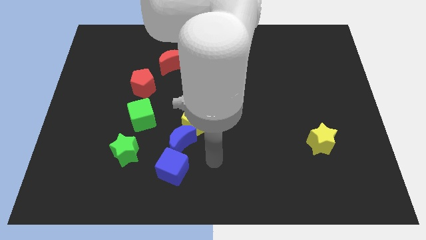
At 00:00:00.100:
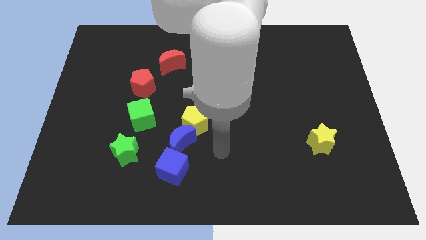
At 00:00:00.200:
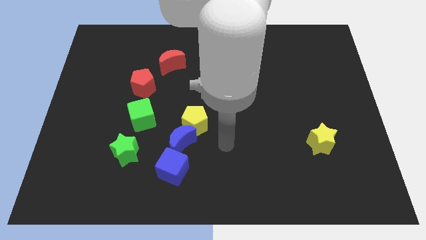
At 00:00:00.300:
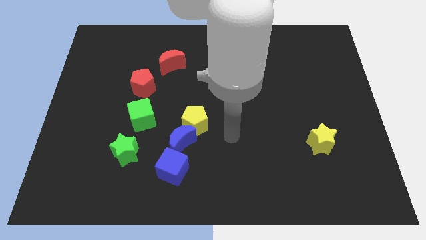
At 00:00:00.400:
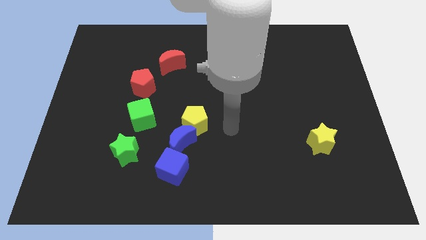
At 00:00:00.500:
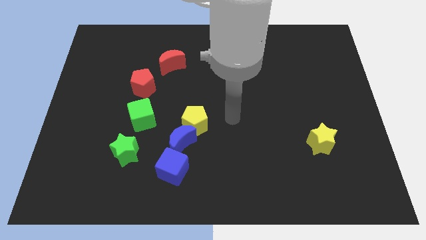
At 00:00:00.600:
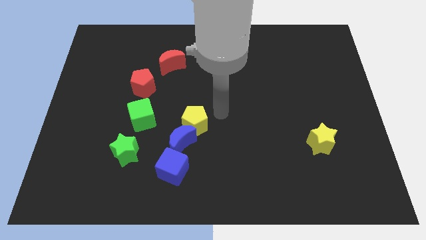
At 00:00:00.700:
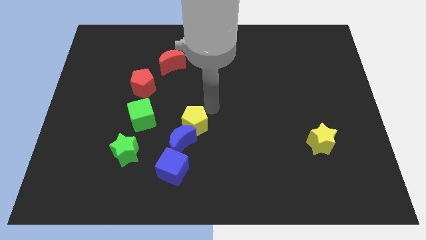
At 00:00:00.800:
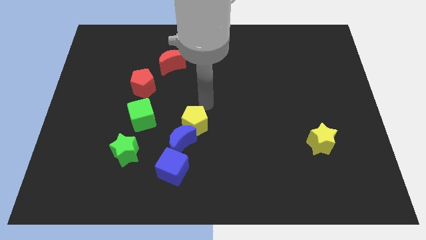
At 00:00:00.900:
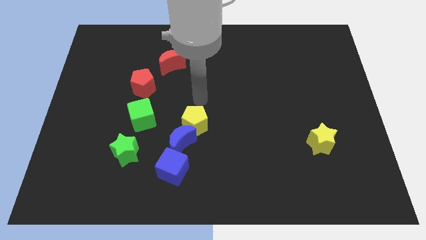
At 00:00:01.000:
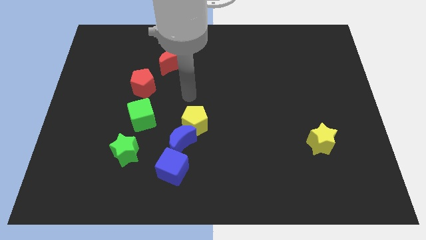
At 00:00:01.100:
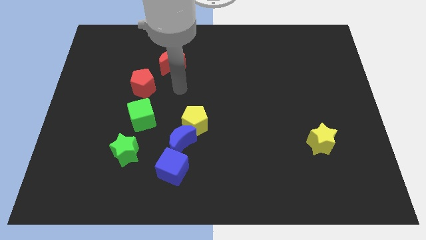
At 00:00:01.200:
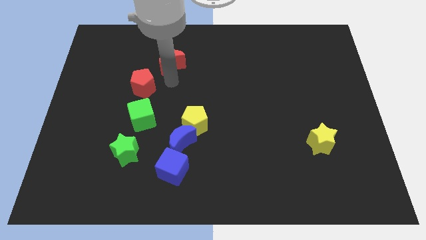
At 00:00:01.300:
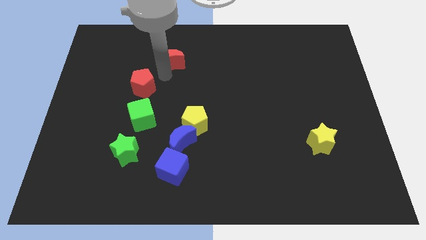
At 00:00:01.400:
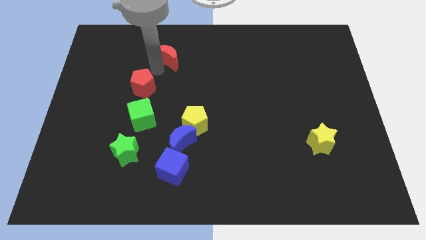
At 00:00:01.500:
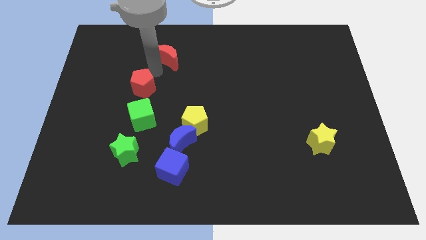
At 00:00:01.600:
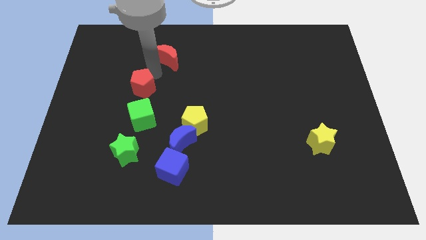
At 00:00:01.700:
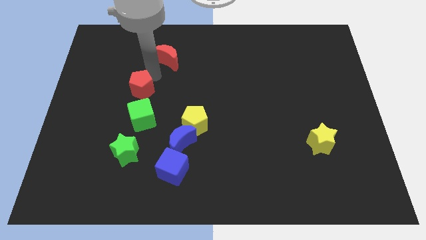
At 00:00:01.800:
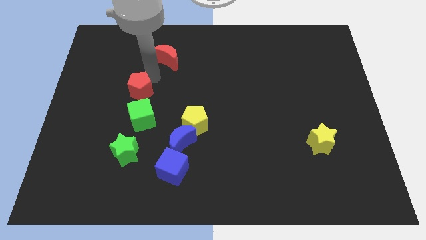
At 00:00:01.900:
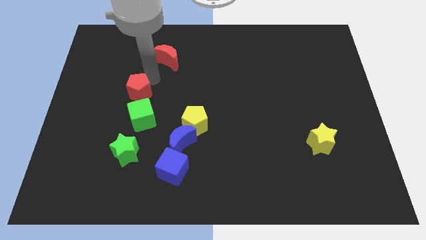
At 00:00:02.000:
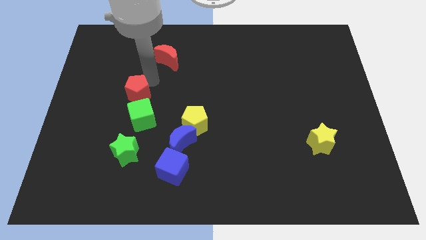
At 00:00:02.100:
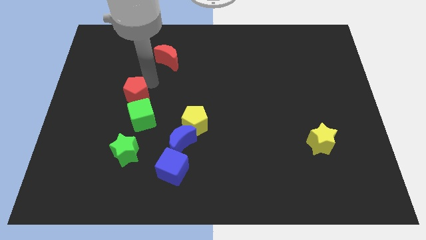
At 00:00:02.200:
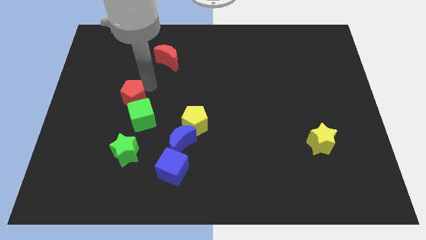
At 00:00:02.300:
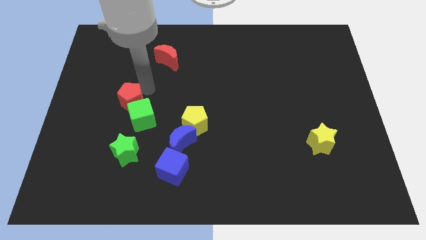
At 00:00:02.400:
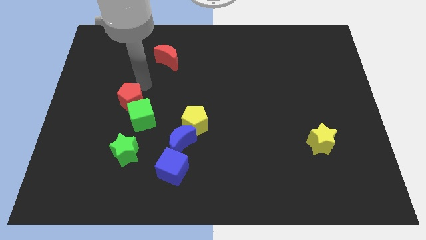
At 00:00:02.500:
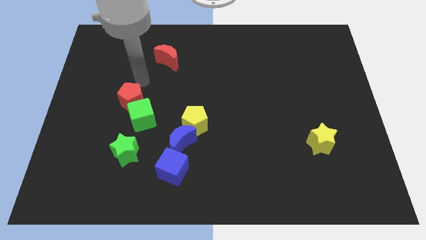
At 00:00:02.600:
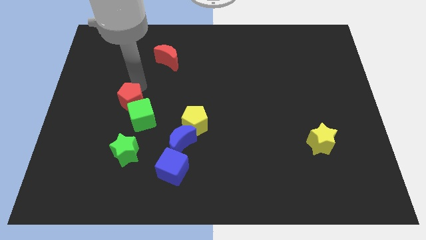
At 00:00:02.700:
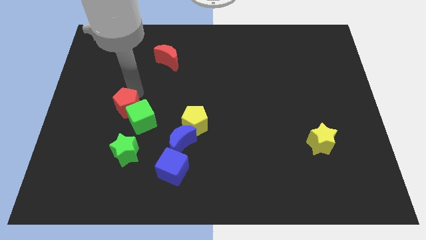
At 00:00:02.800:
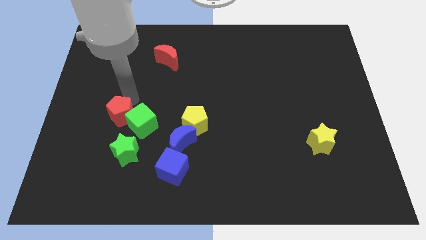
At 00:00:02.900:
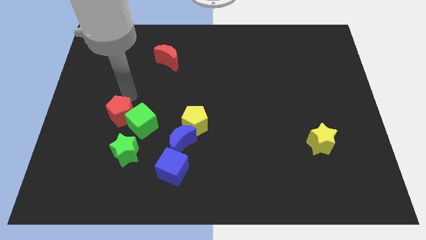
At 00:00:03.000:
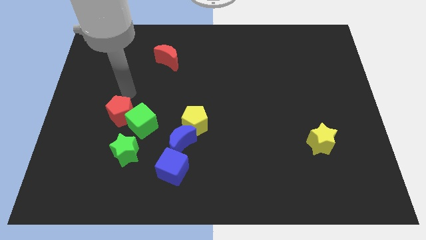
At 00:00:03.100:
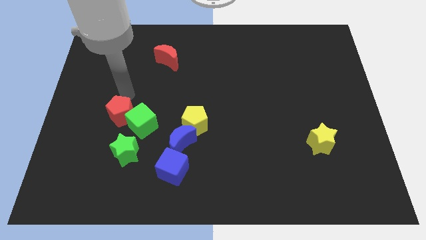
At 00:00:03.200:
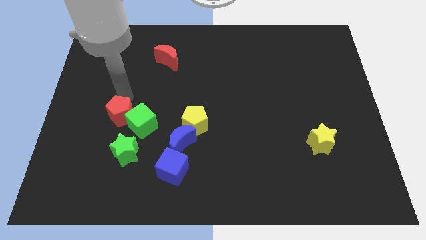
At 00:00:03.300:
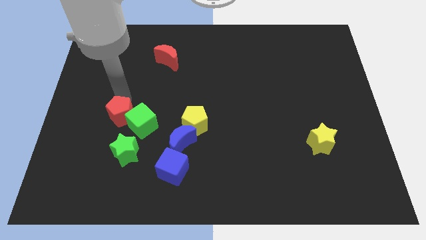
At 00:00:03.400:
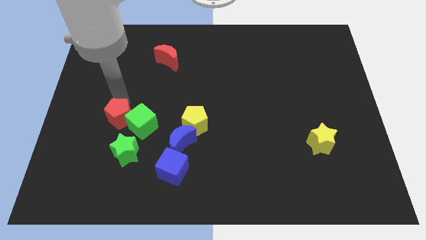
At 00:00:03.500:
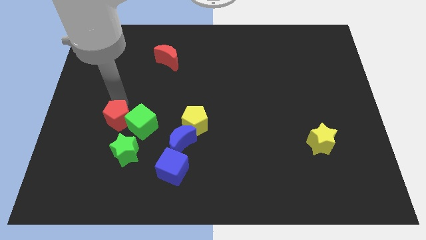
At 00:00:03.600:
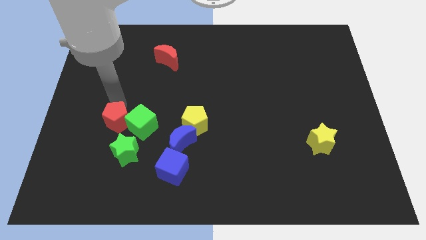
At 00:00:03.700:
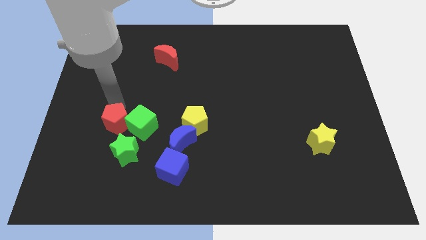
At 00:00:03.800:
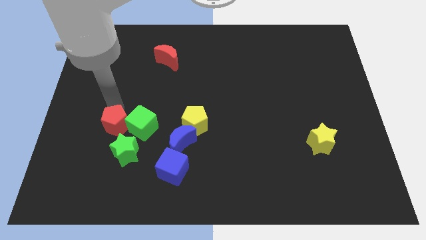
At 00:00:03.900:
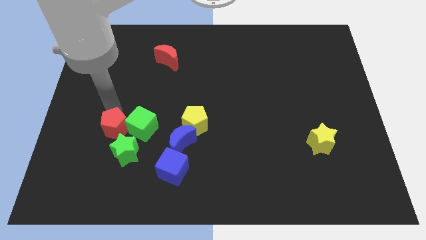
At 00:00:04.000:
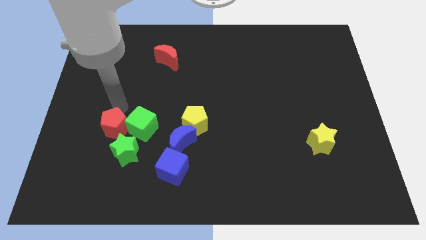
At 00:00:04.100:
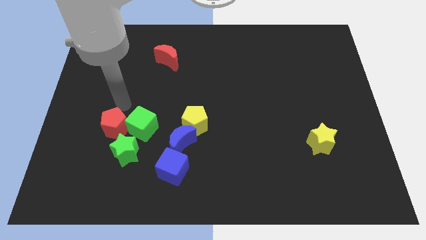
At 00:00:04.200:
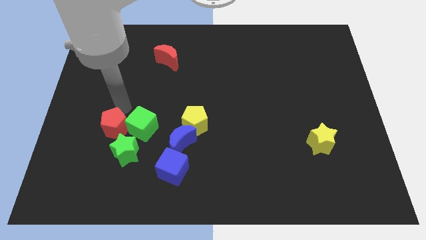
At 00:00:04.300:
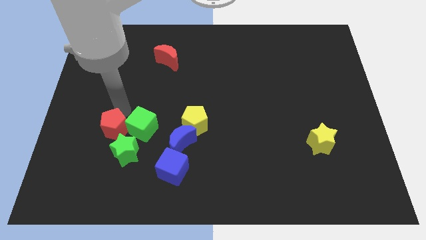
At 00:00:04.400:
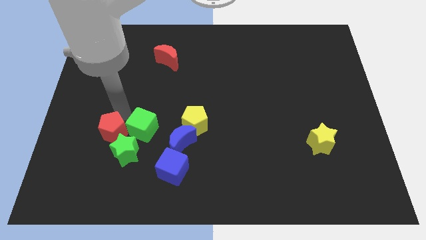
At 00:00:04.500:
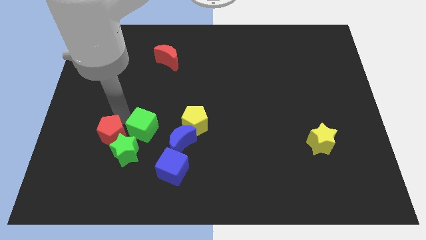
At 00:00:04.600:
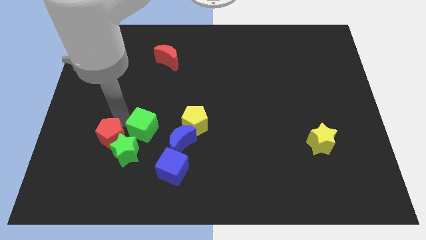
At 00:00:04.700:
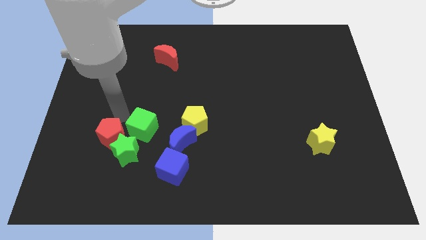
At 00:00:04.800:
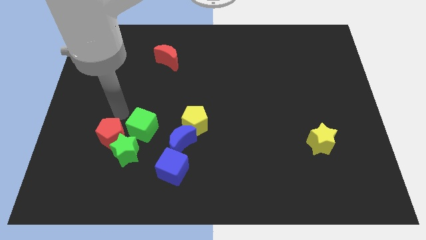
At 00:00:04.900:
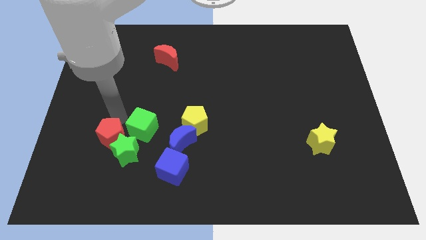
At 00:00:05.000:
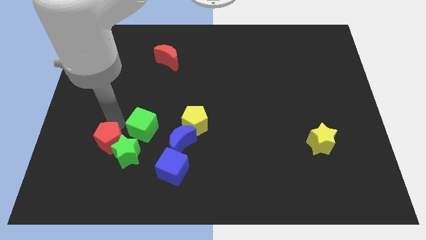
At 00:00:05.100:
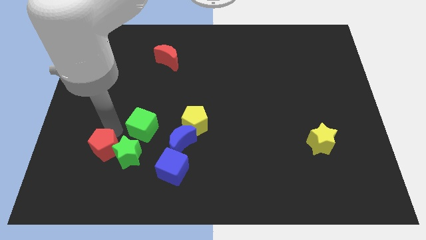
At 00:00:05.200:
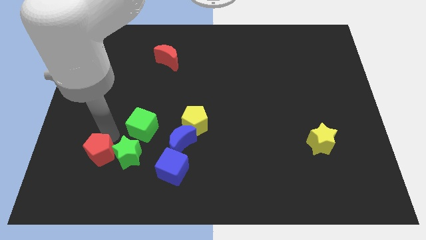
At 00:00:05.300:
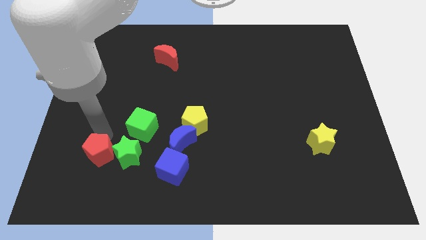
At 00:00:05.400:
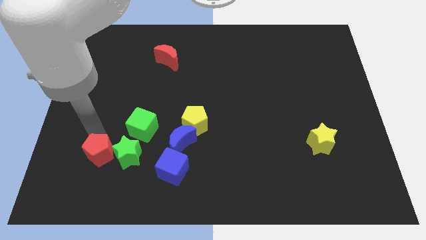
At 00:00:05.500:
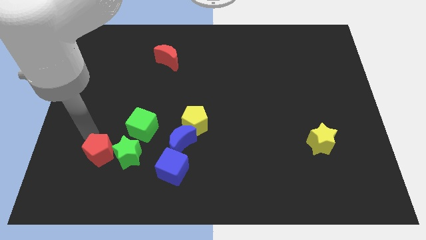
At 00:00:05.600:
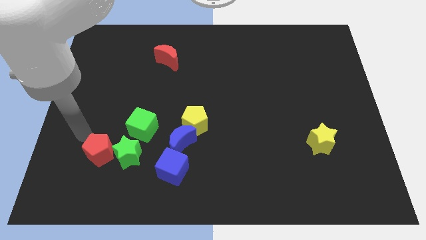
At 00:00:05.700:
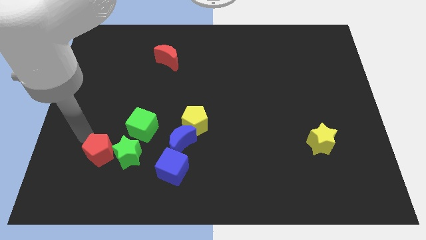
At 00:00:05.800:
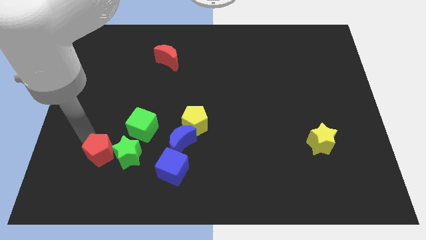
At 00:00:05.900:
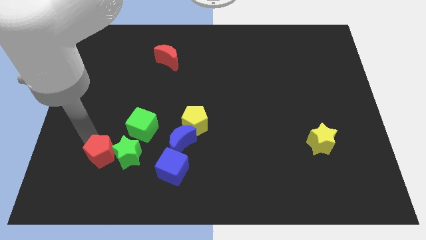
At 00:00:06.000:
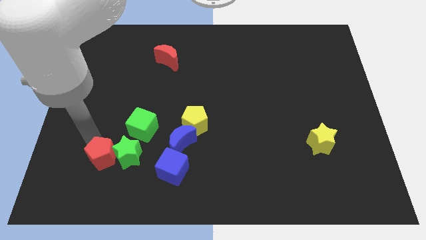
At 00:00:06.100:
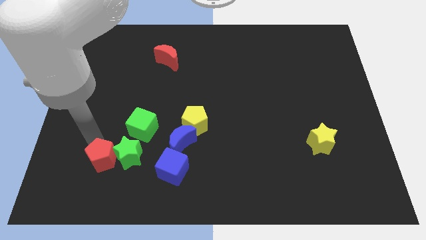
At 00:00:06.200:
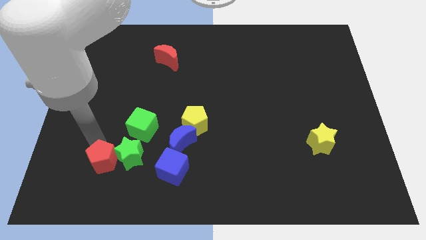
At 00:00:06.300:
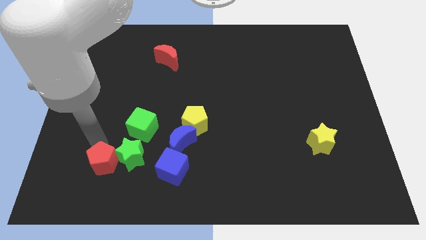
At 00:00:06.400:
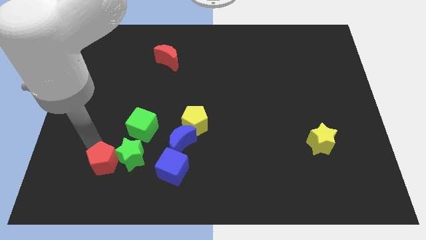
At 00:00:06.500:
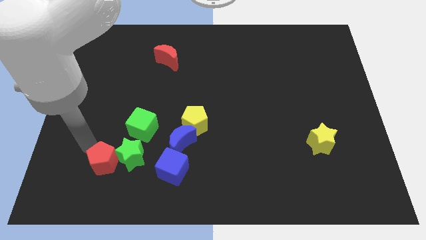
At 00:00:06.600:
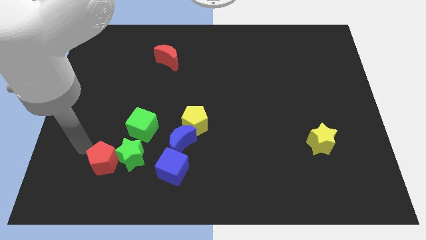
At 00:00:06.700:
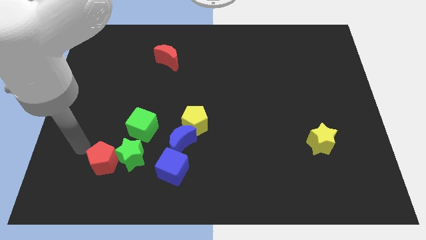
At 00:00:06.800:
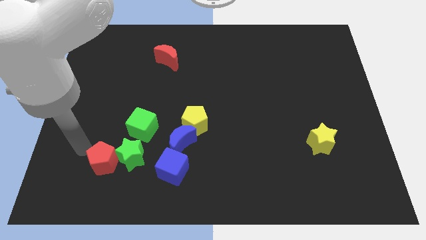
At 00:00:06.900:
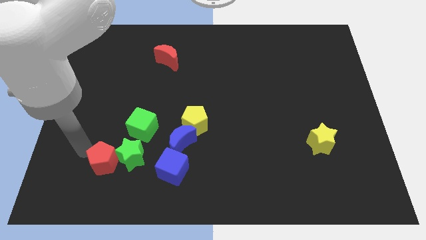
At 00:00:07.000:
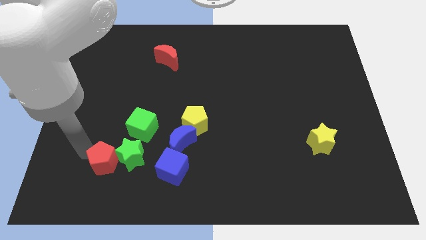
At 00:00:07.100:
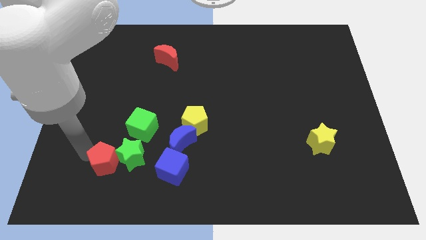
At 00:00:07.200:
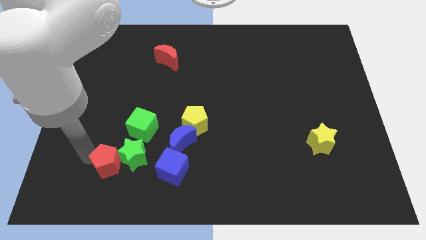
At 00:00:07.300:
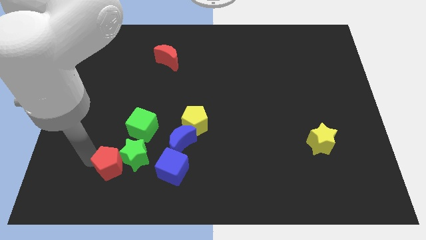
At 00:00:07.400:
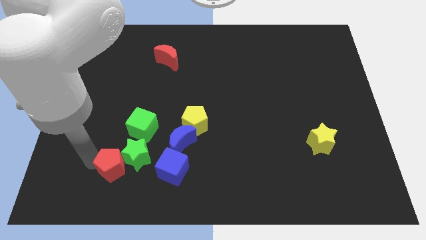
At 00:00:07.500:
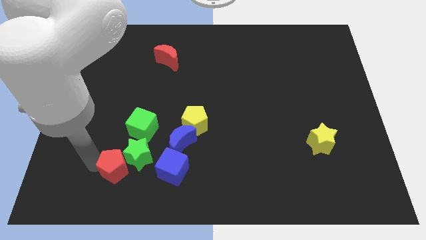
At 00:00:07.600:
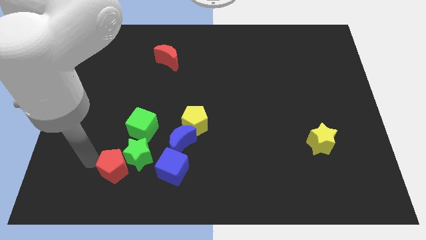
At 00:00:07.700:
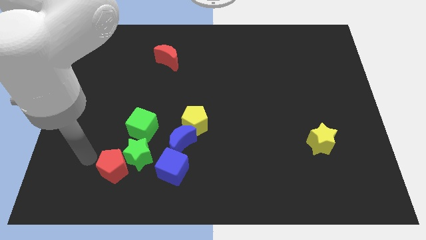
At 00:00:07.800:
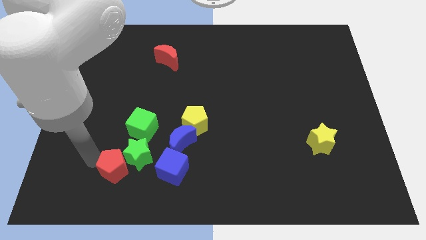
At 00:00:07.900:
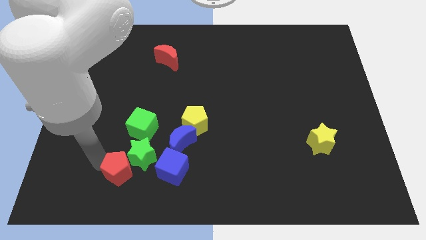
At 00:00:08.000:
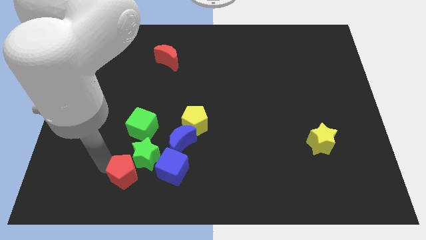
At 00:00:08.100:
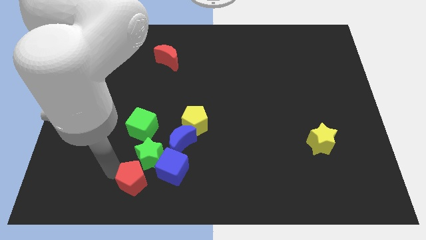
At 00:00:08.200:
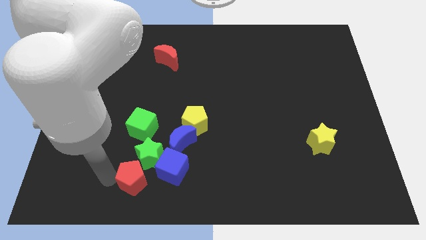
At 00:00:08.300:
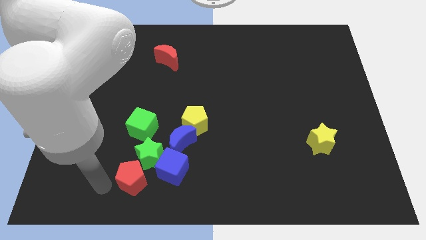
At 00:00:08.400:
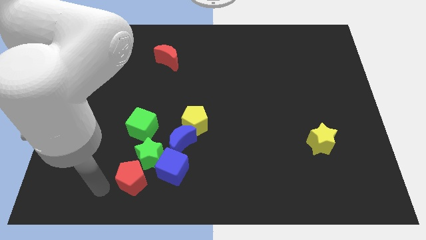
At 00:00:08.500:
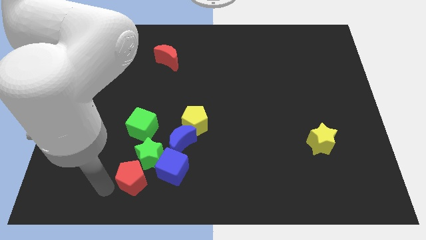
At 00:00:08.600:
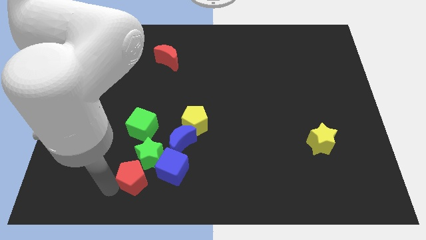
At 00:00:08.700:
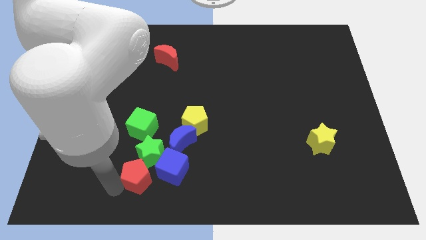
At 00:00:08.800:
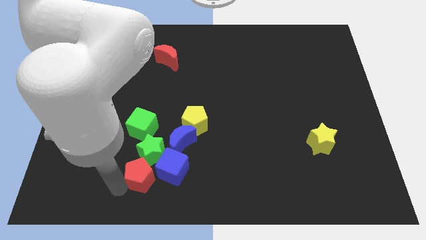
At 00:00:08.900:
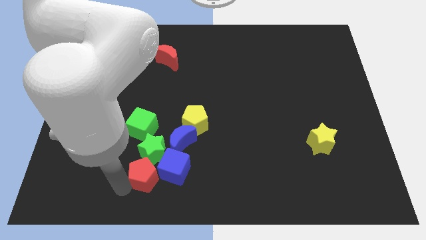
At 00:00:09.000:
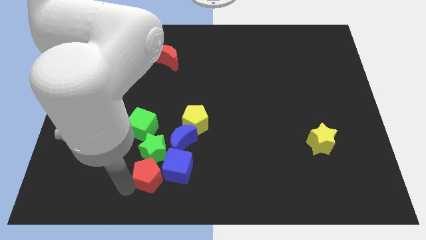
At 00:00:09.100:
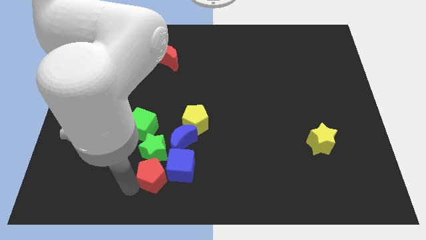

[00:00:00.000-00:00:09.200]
slide the red pentagon close to the blue cube
